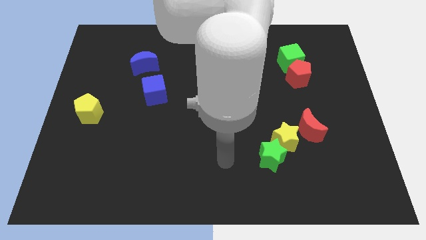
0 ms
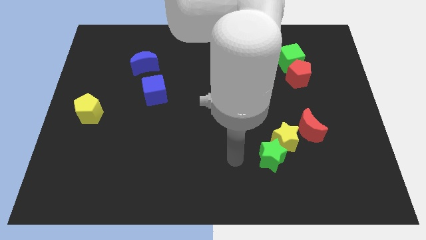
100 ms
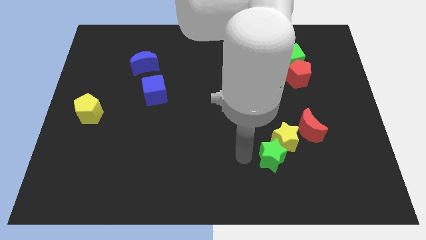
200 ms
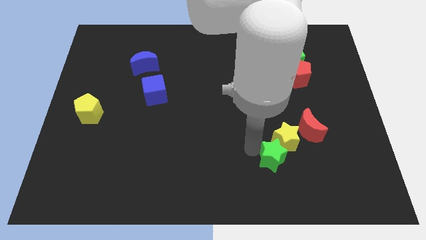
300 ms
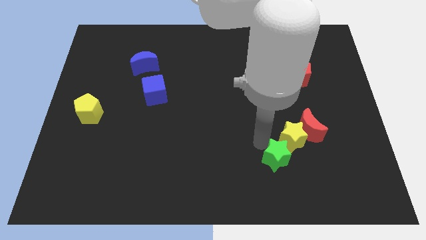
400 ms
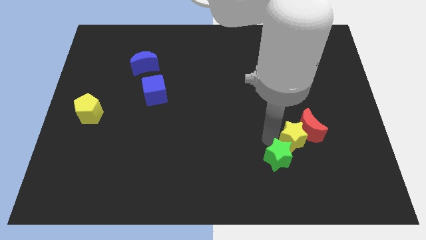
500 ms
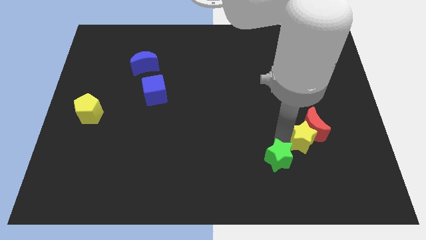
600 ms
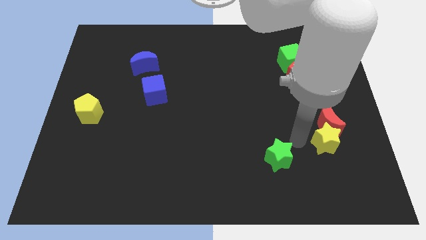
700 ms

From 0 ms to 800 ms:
move the green star away from the yellow star

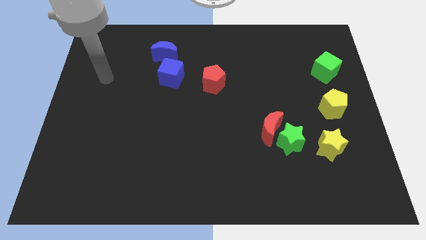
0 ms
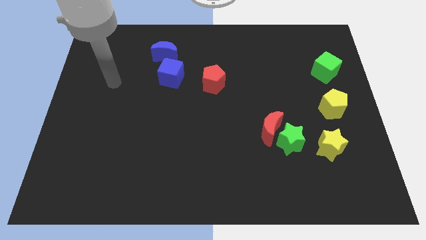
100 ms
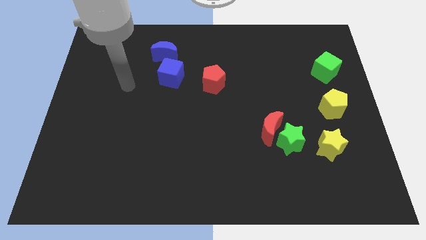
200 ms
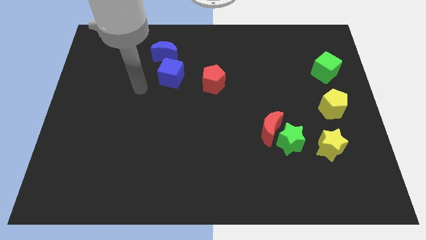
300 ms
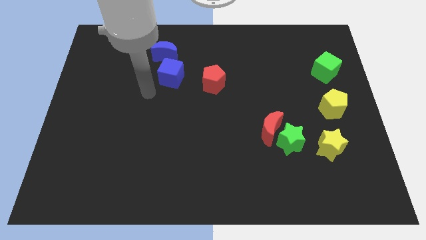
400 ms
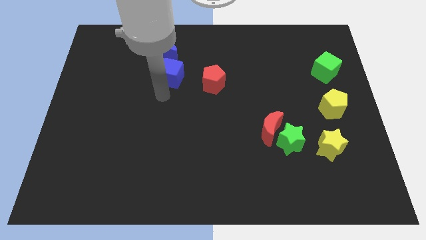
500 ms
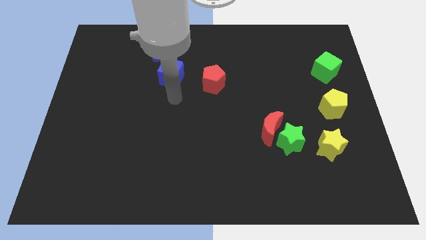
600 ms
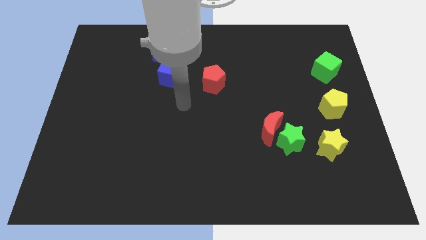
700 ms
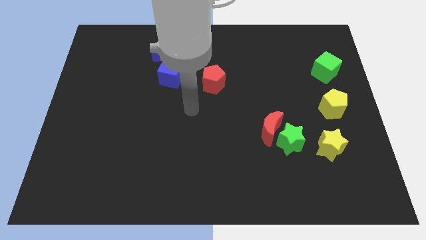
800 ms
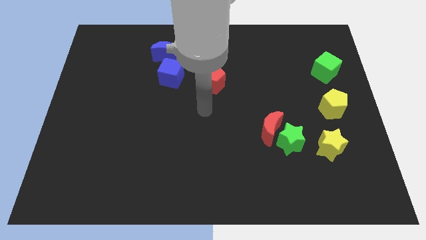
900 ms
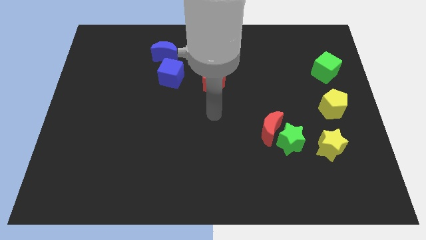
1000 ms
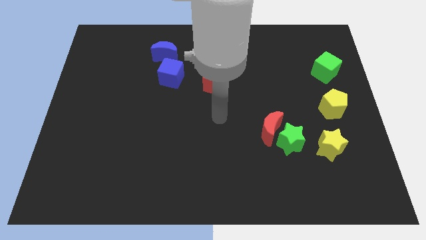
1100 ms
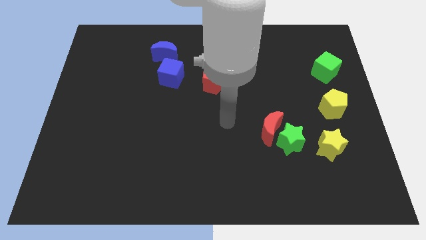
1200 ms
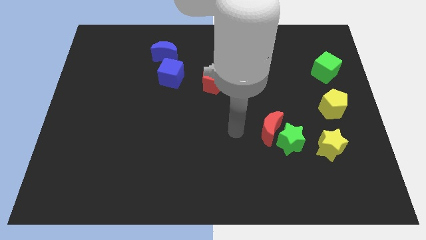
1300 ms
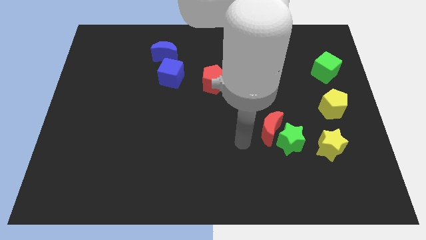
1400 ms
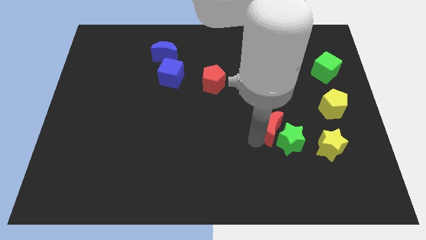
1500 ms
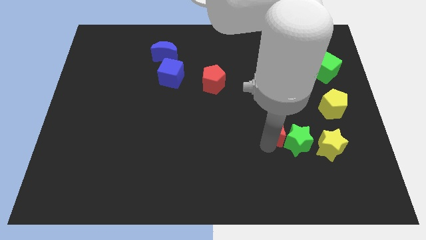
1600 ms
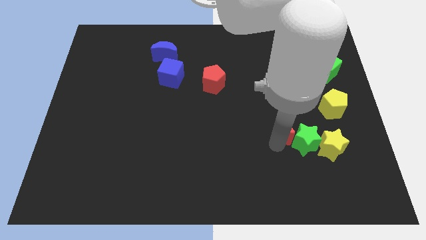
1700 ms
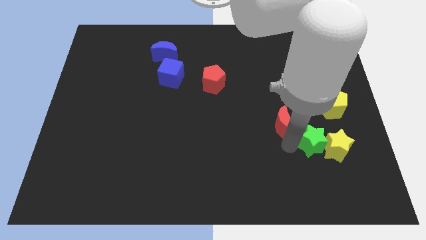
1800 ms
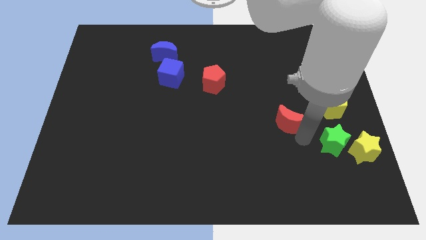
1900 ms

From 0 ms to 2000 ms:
move the red moon away from the green star

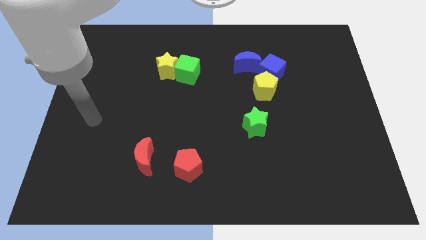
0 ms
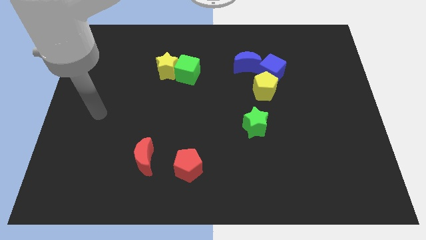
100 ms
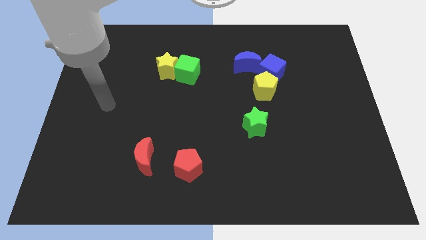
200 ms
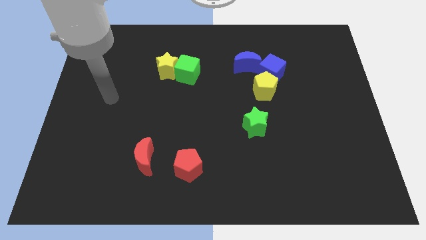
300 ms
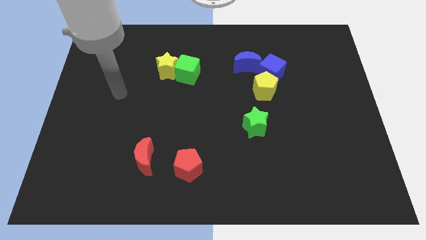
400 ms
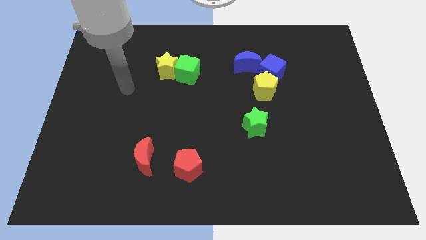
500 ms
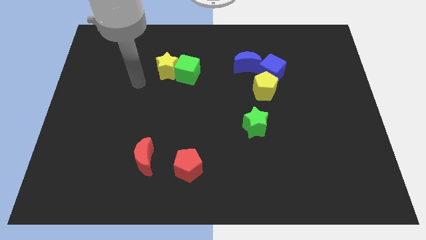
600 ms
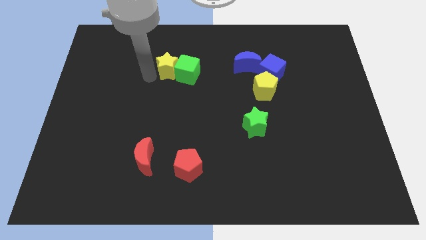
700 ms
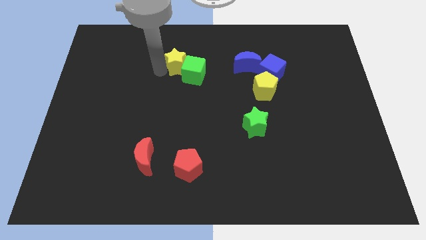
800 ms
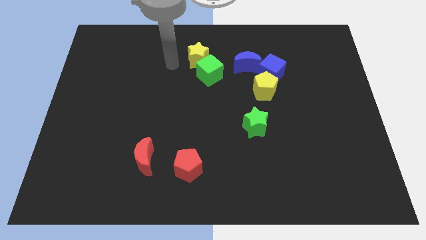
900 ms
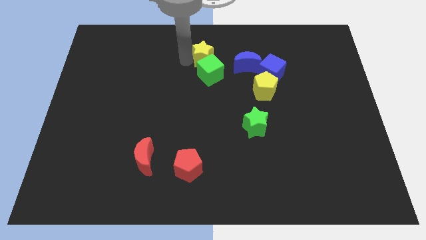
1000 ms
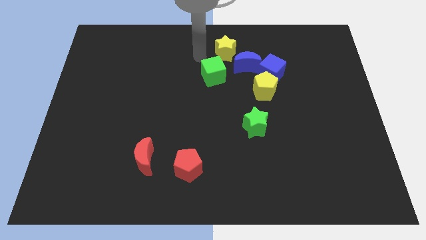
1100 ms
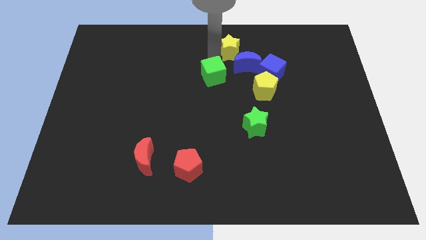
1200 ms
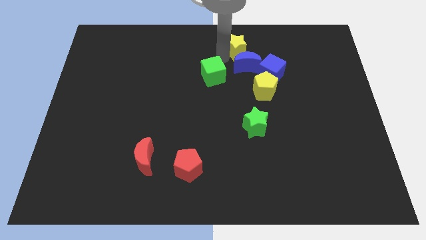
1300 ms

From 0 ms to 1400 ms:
pull the green cube apart from the yellow star

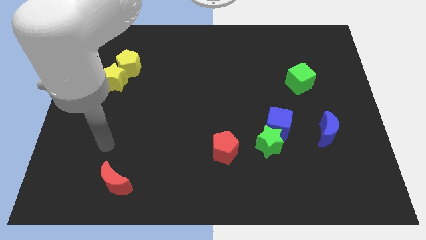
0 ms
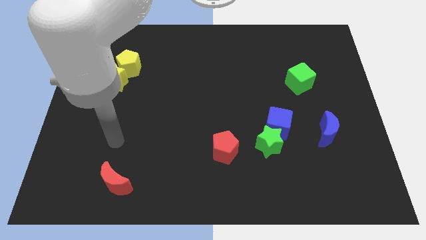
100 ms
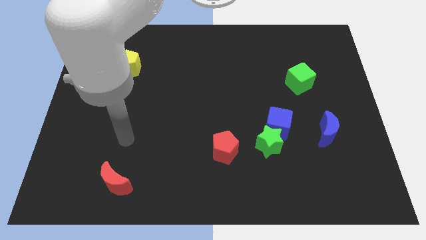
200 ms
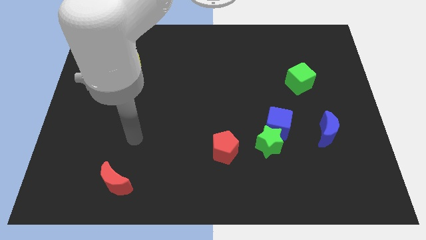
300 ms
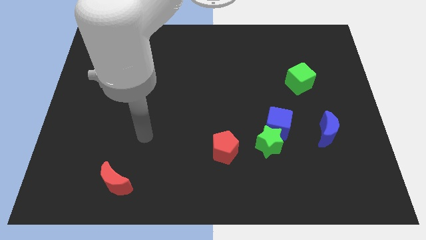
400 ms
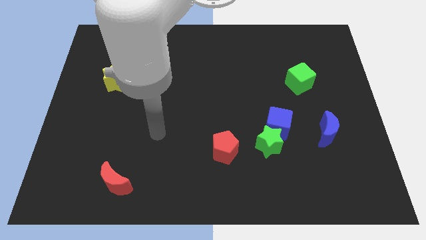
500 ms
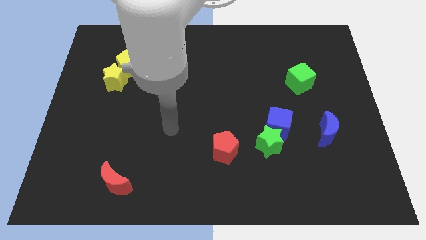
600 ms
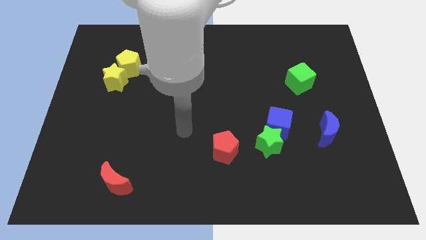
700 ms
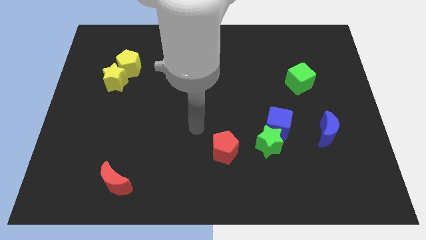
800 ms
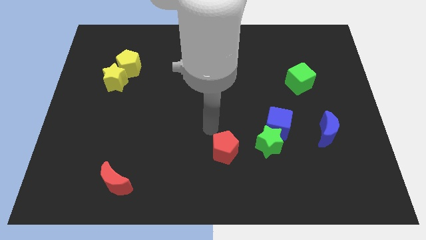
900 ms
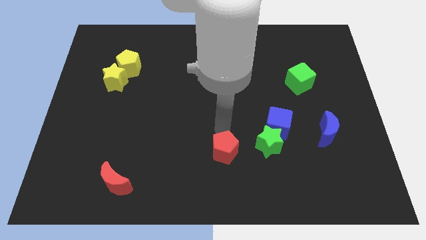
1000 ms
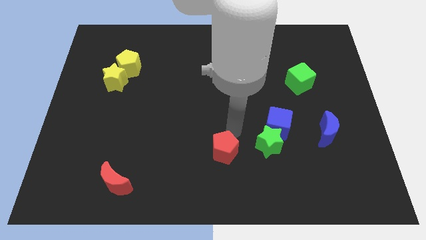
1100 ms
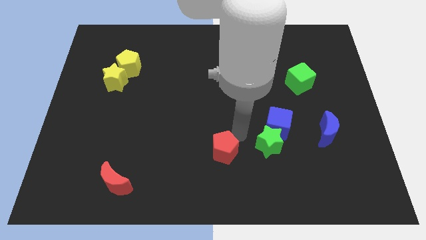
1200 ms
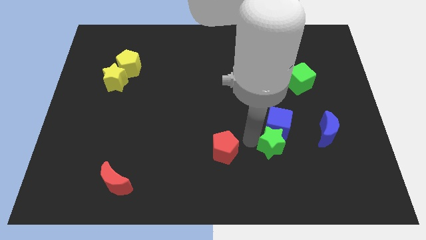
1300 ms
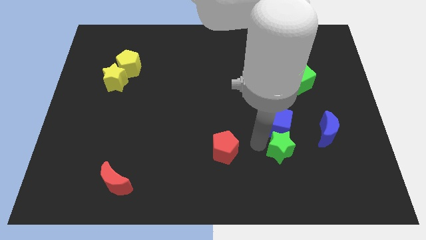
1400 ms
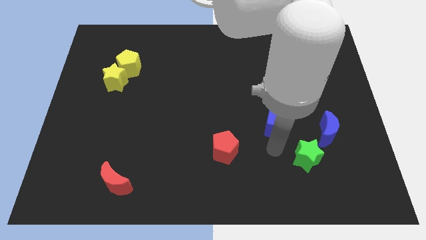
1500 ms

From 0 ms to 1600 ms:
separate the blue cube from the green star

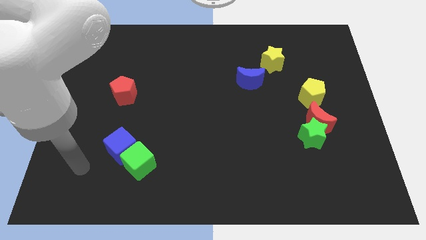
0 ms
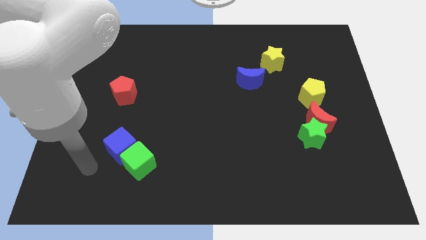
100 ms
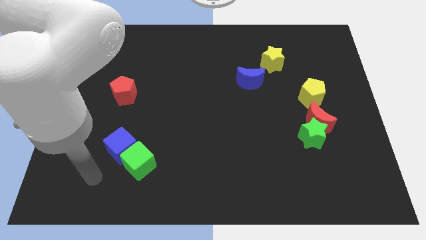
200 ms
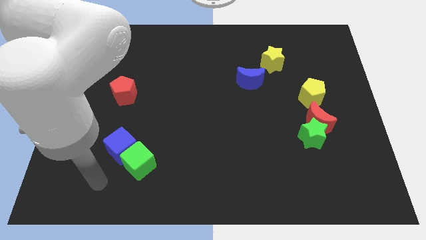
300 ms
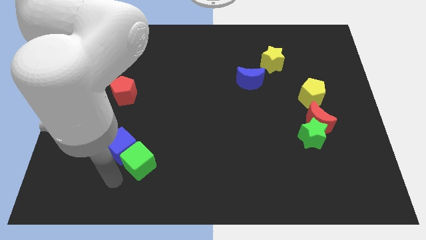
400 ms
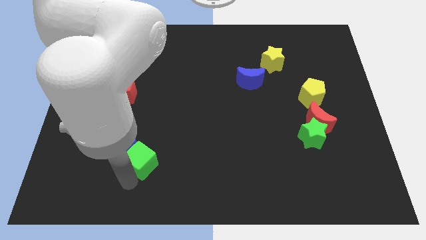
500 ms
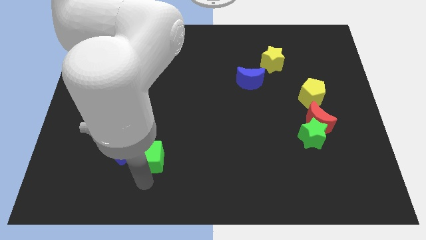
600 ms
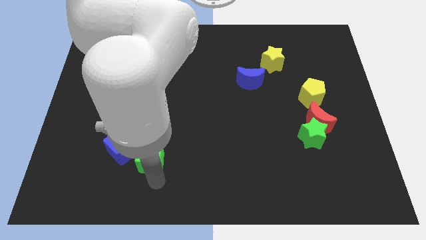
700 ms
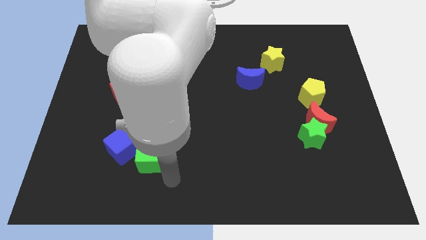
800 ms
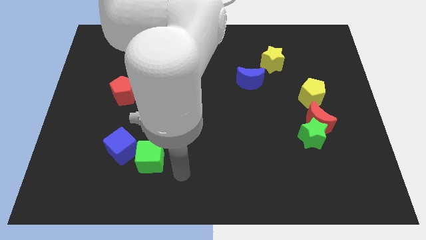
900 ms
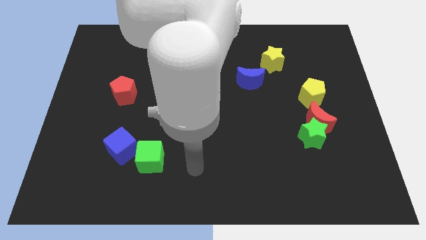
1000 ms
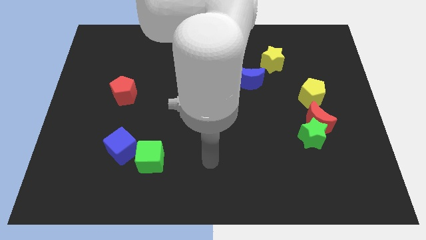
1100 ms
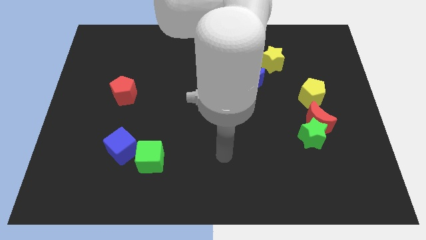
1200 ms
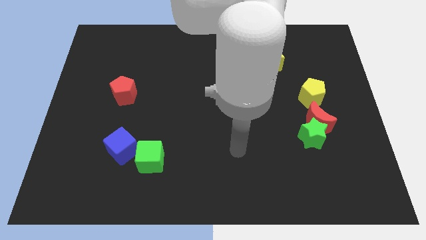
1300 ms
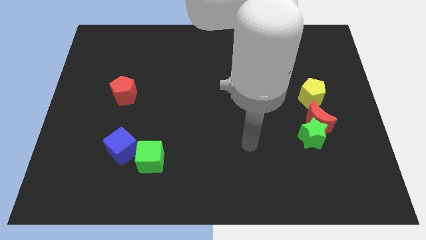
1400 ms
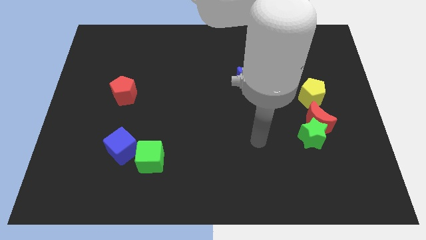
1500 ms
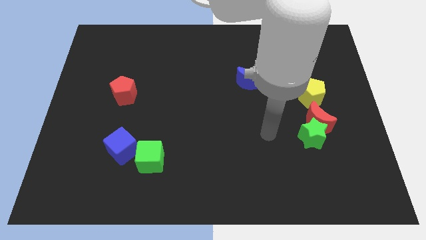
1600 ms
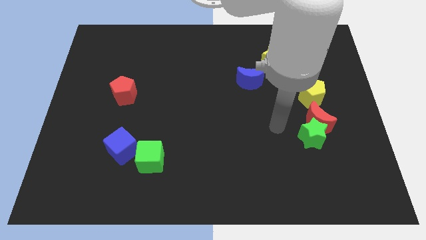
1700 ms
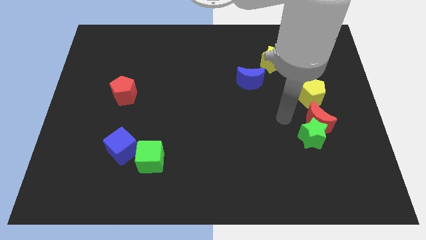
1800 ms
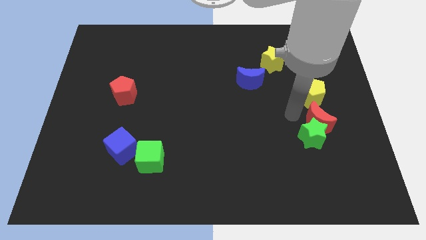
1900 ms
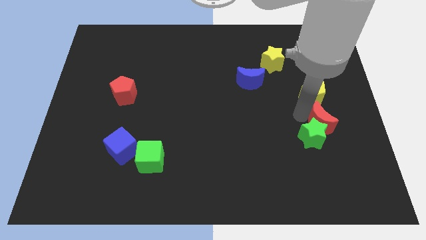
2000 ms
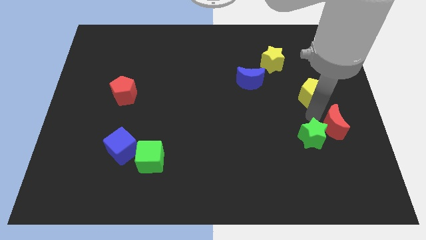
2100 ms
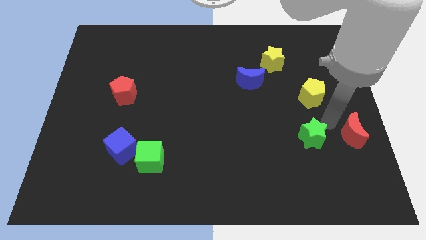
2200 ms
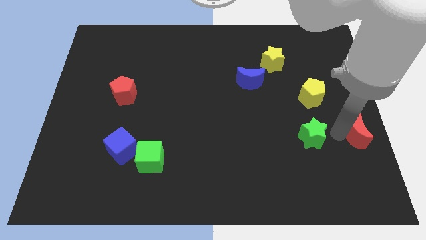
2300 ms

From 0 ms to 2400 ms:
move the green star away from the red moon

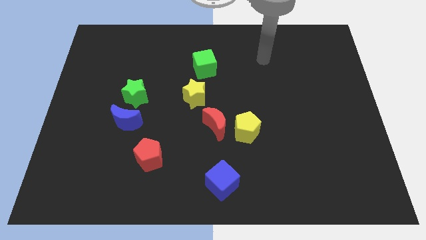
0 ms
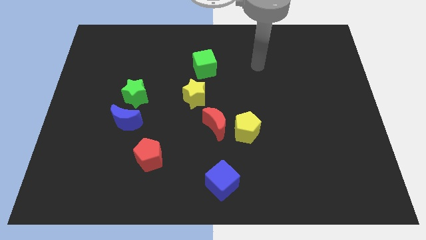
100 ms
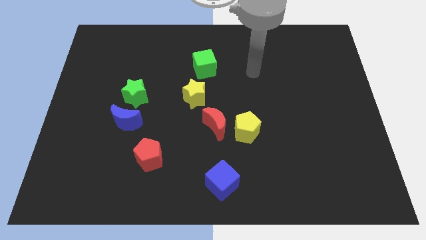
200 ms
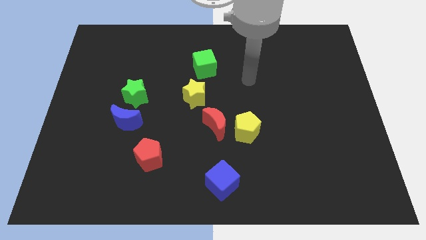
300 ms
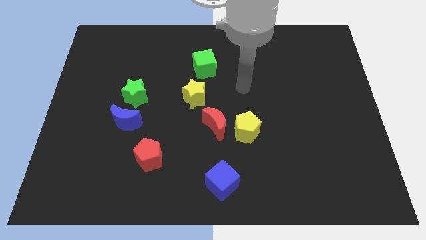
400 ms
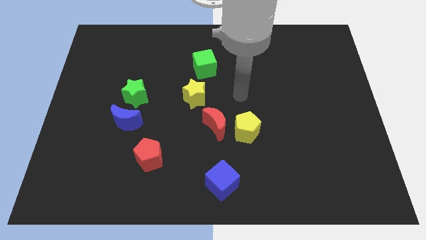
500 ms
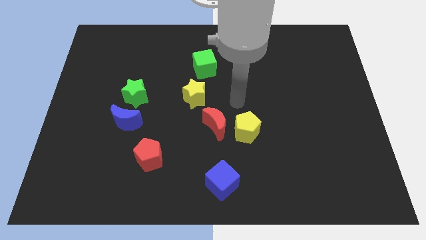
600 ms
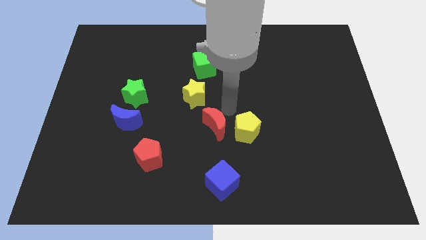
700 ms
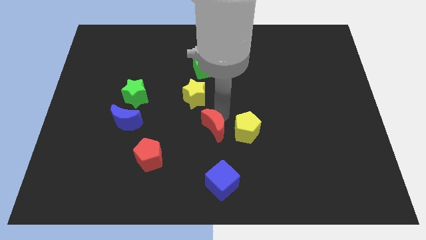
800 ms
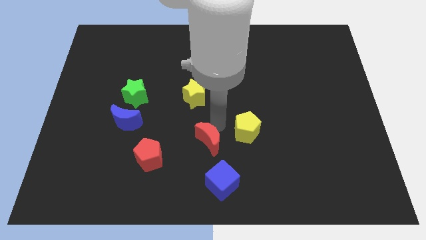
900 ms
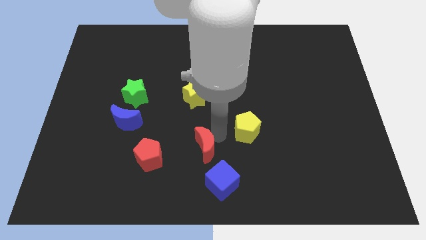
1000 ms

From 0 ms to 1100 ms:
separate the yellow pentagon from the red moon
